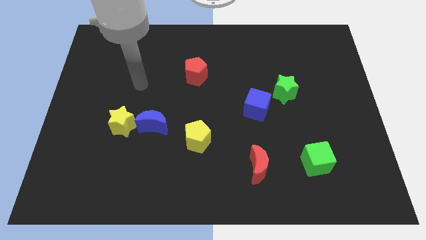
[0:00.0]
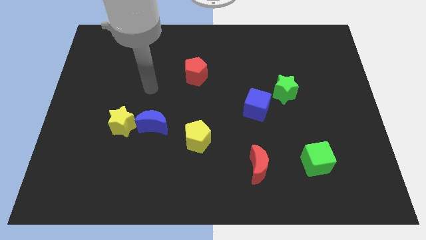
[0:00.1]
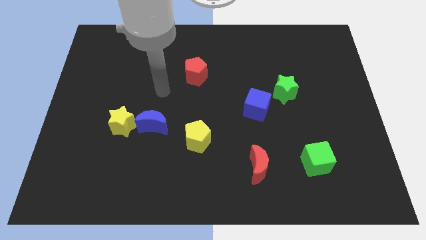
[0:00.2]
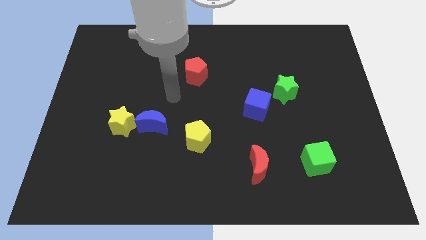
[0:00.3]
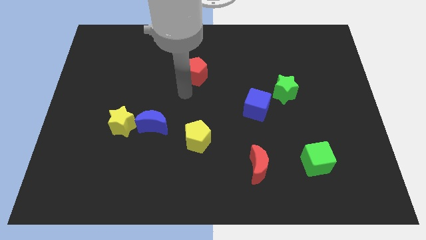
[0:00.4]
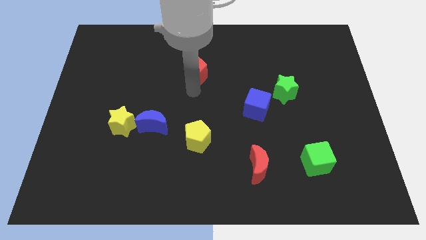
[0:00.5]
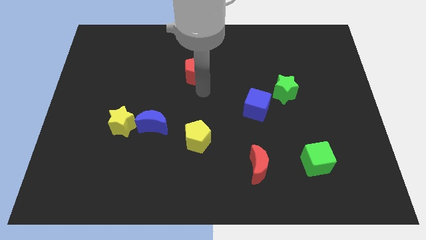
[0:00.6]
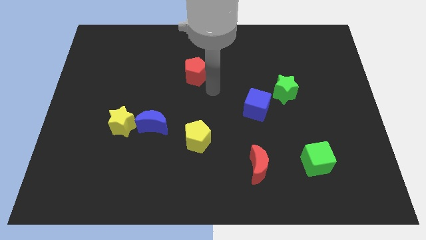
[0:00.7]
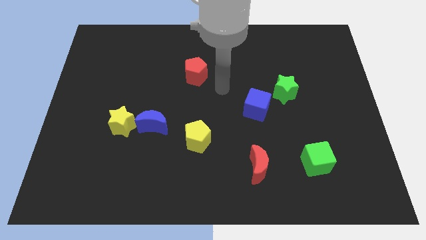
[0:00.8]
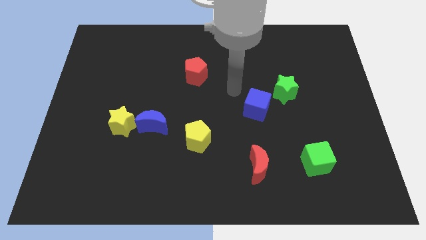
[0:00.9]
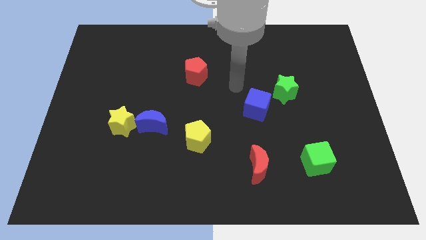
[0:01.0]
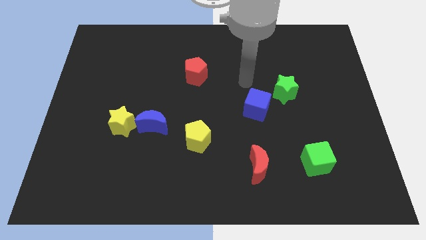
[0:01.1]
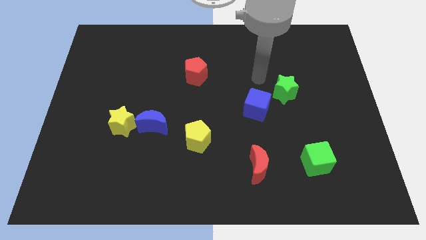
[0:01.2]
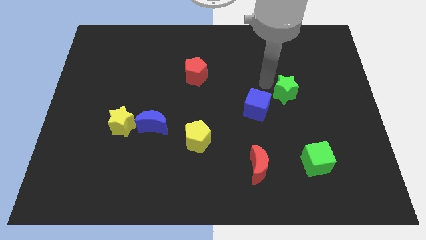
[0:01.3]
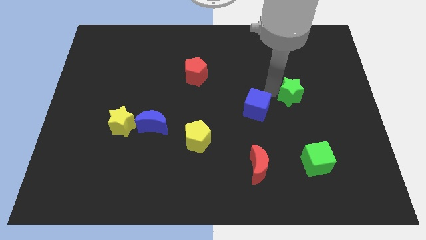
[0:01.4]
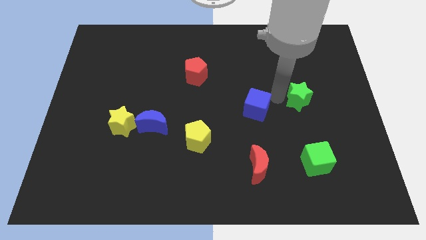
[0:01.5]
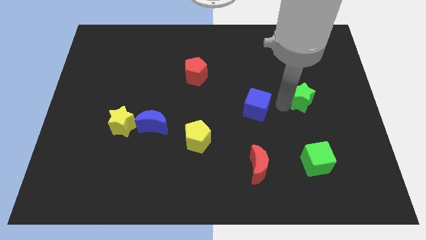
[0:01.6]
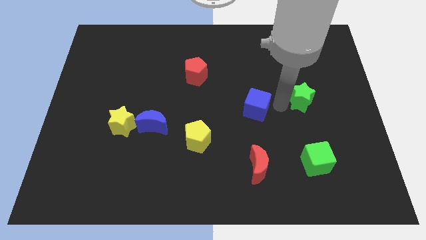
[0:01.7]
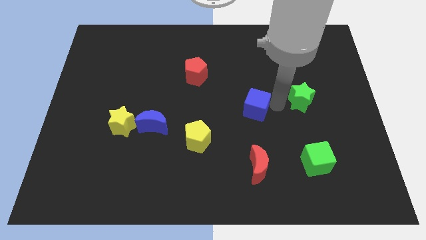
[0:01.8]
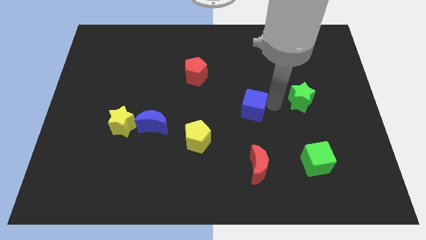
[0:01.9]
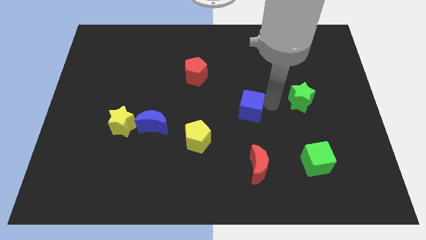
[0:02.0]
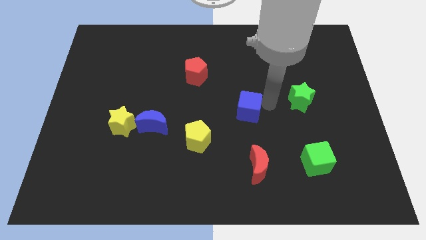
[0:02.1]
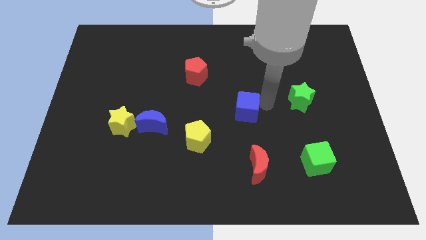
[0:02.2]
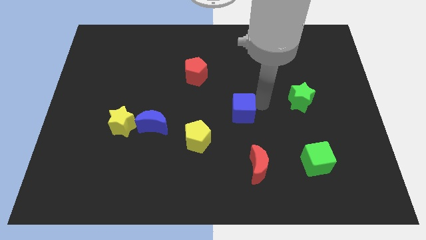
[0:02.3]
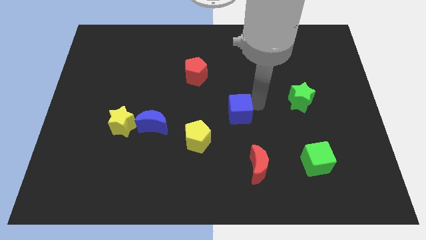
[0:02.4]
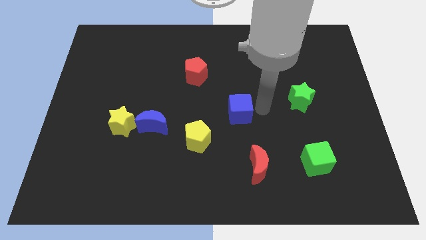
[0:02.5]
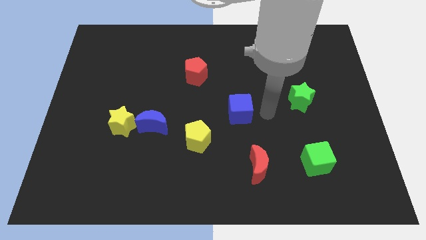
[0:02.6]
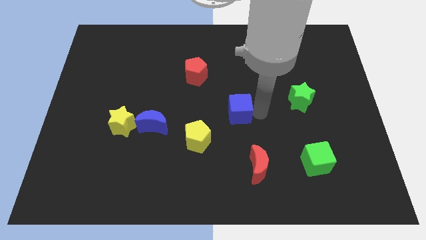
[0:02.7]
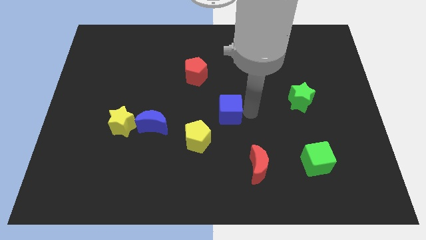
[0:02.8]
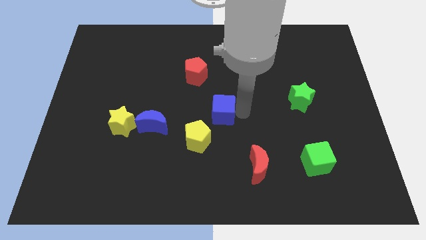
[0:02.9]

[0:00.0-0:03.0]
push the blue cube left somewhat

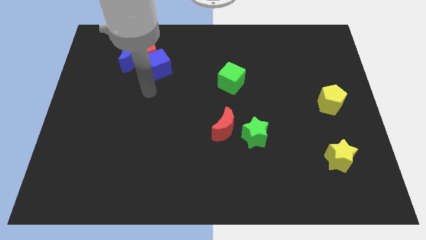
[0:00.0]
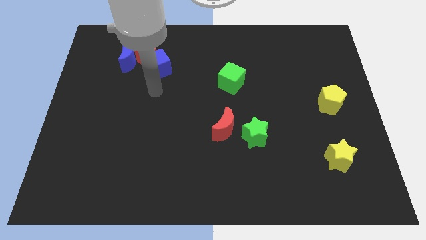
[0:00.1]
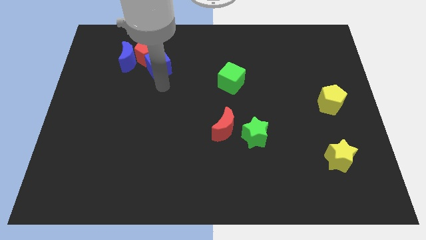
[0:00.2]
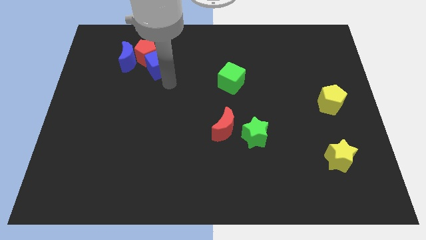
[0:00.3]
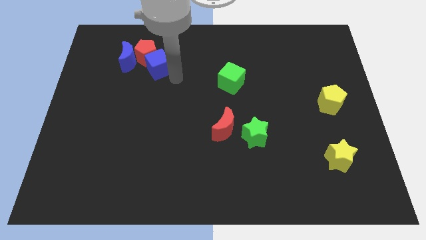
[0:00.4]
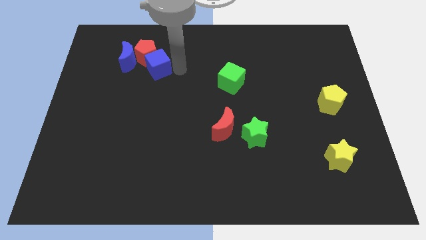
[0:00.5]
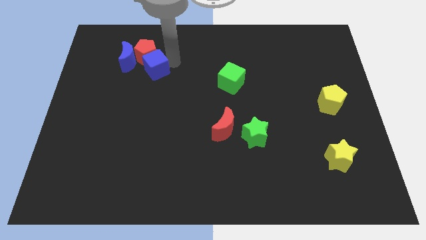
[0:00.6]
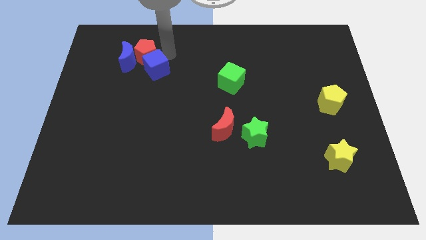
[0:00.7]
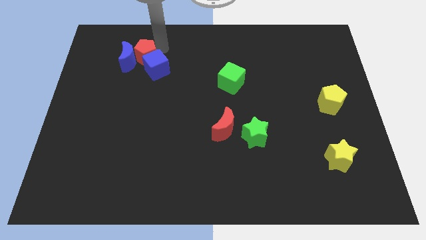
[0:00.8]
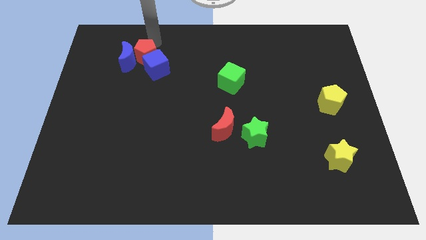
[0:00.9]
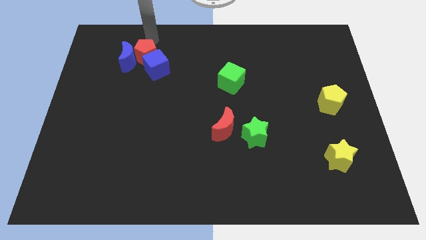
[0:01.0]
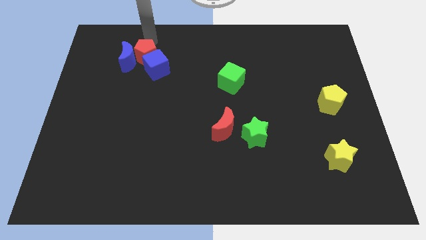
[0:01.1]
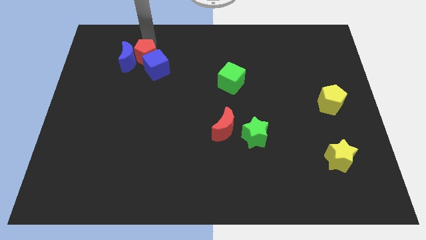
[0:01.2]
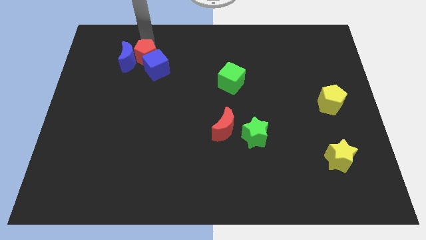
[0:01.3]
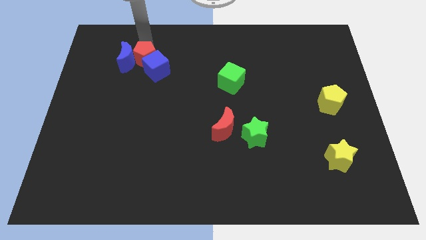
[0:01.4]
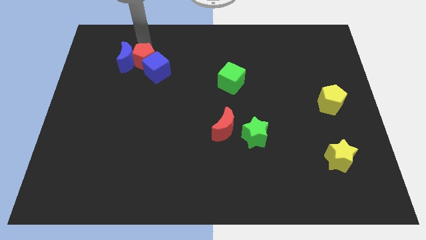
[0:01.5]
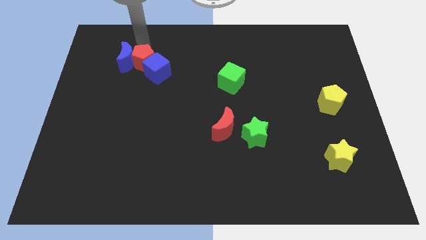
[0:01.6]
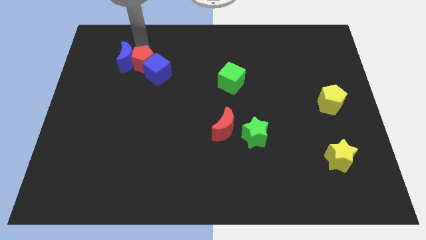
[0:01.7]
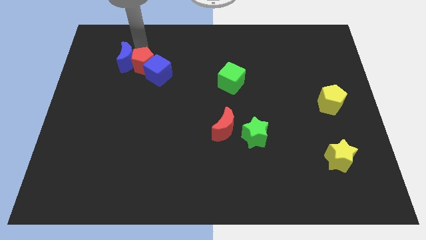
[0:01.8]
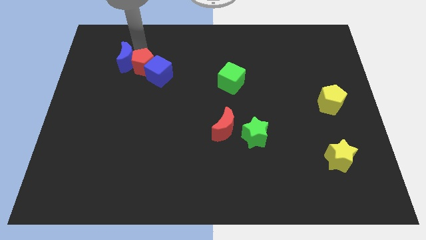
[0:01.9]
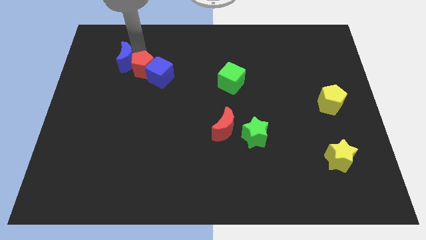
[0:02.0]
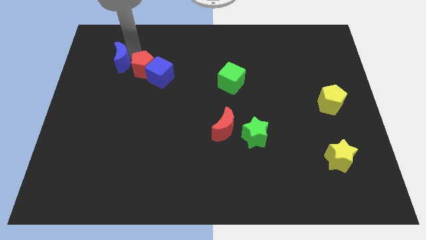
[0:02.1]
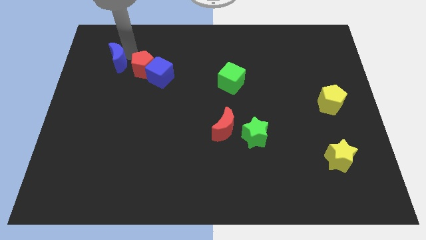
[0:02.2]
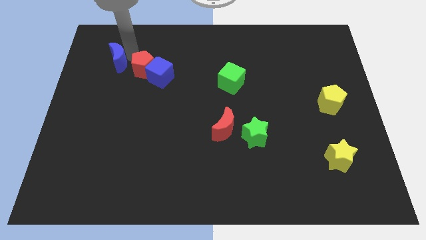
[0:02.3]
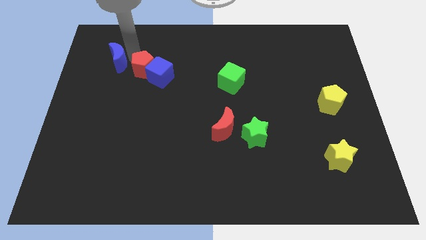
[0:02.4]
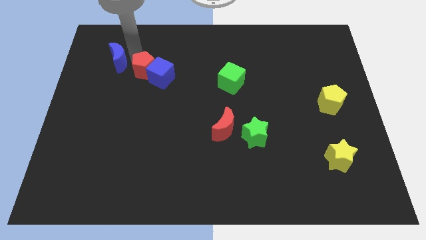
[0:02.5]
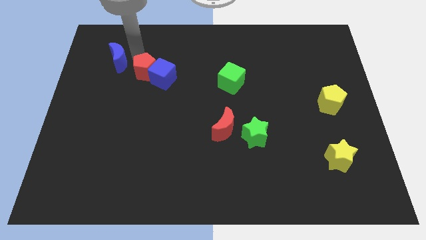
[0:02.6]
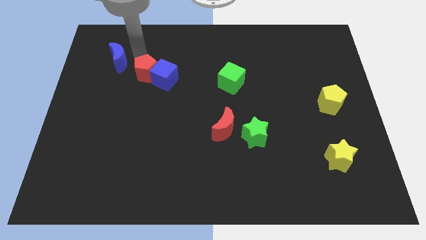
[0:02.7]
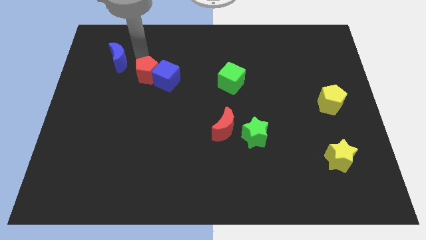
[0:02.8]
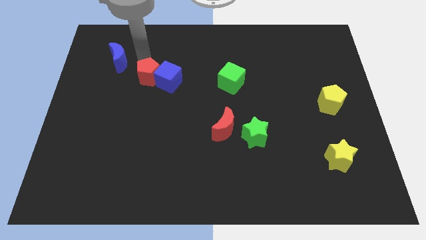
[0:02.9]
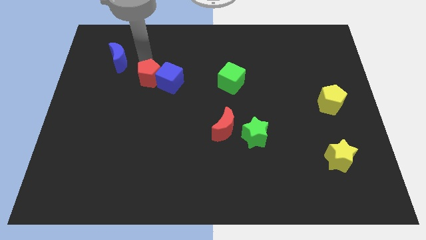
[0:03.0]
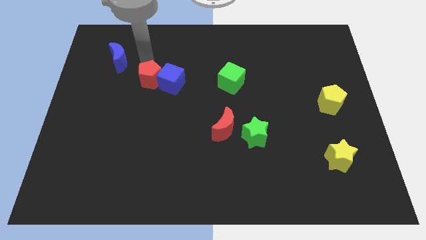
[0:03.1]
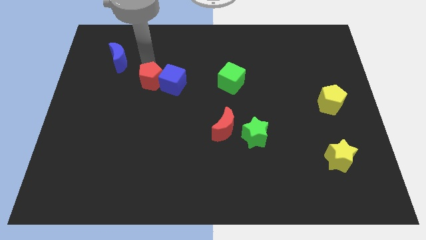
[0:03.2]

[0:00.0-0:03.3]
slide the red pentagon a little bit down and to the right

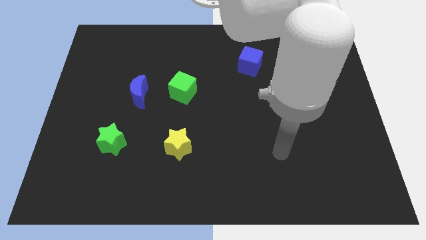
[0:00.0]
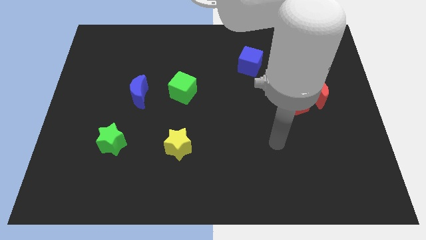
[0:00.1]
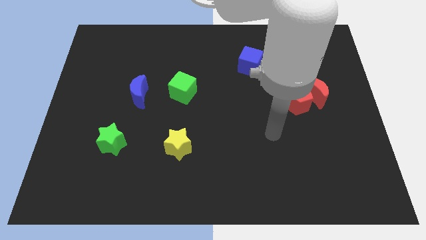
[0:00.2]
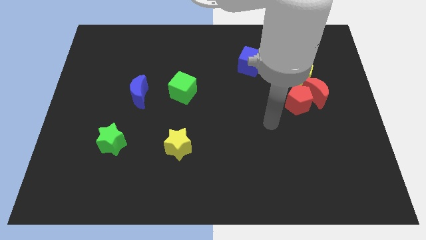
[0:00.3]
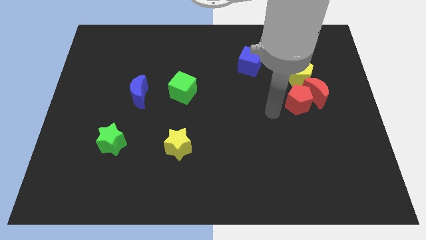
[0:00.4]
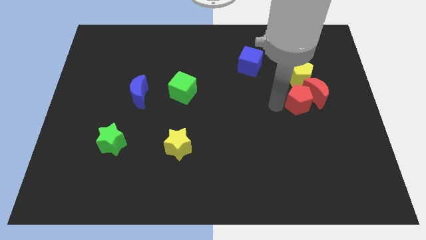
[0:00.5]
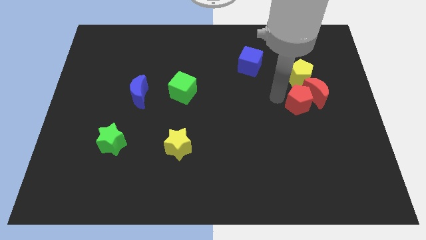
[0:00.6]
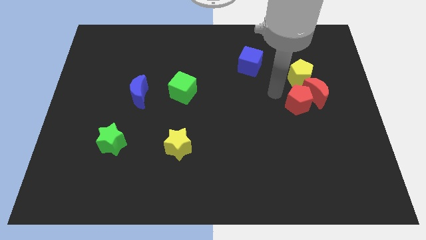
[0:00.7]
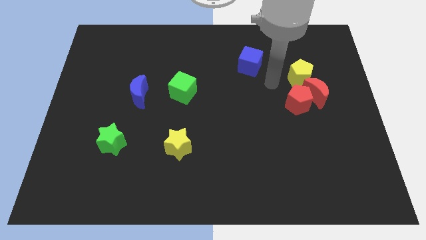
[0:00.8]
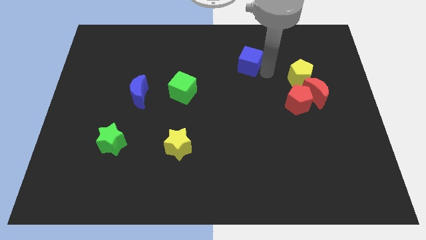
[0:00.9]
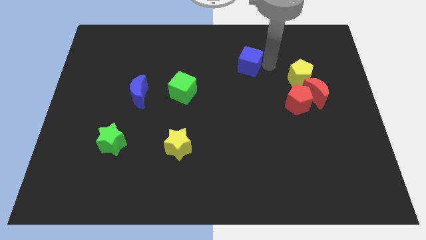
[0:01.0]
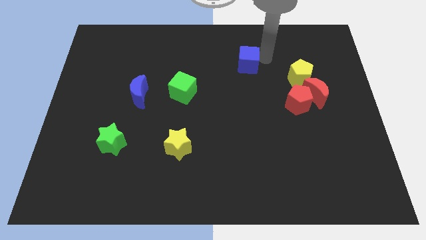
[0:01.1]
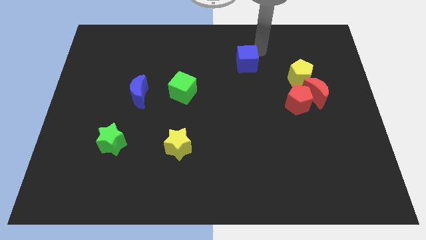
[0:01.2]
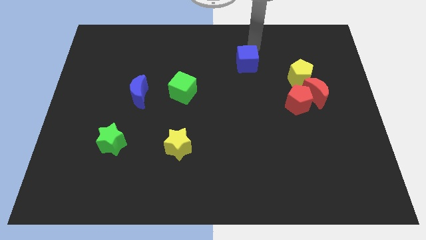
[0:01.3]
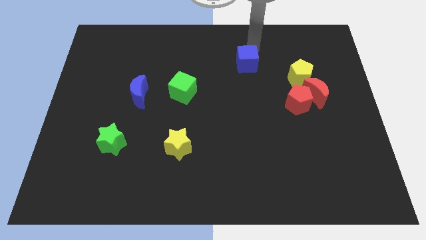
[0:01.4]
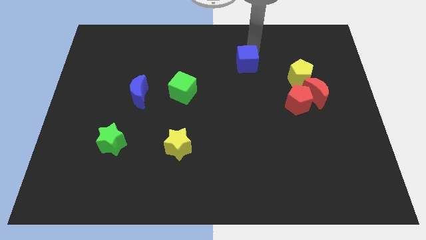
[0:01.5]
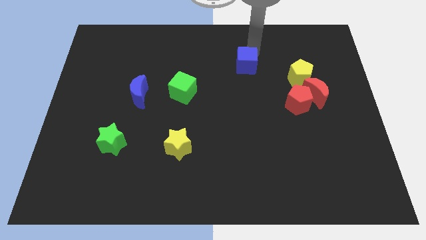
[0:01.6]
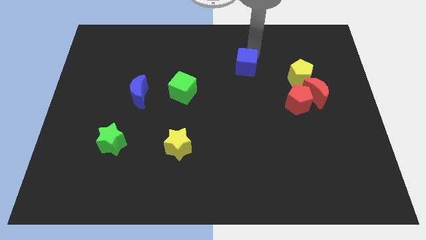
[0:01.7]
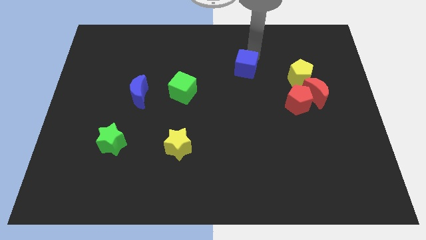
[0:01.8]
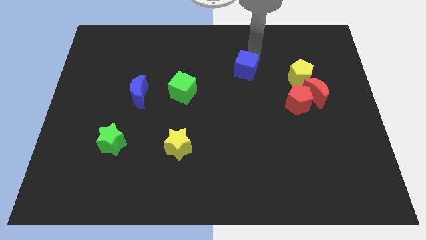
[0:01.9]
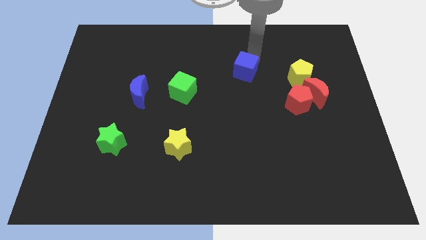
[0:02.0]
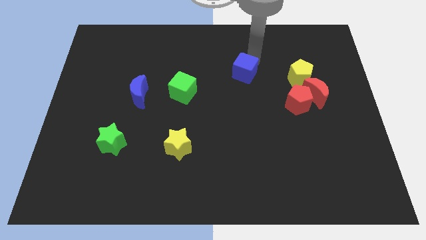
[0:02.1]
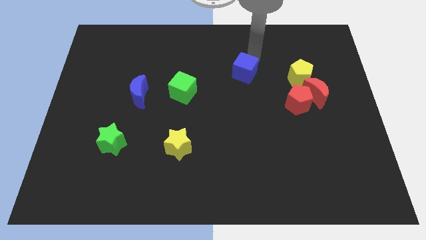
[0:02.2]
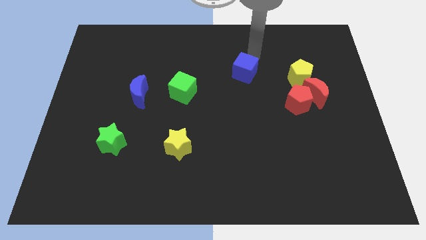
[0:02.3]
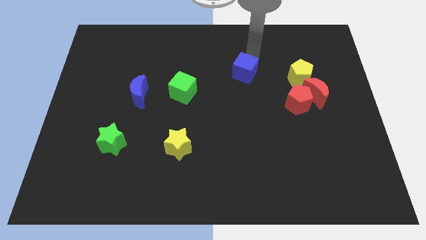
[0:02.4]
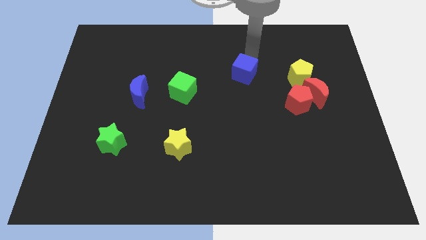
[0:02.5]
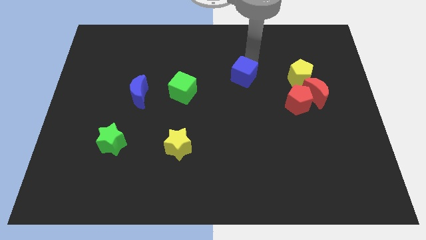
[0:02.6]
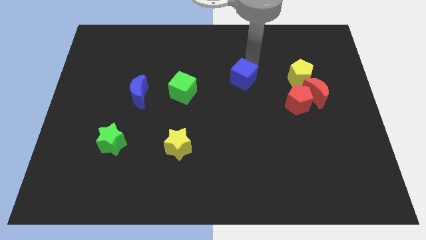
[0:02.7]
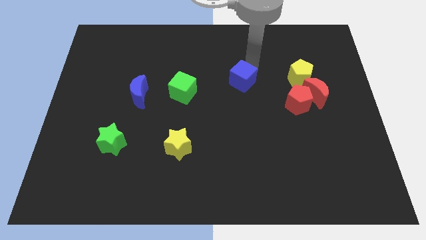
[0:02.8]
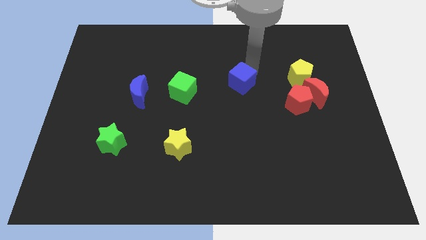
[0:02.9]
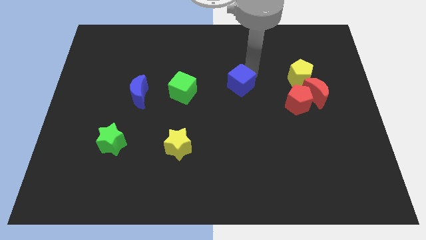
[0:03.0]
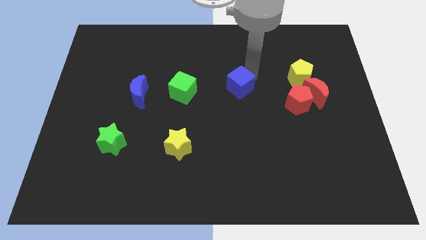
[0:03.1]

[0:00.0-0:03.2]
push the blue cube slightly diagonally down and left
